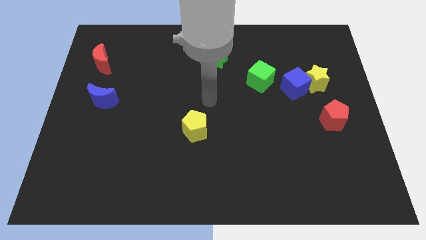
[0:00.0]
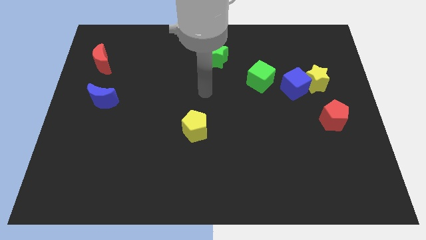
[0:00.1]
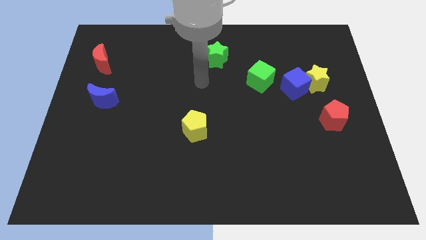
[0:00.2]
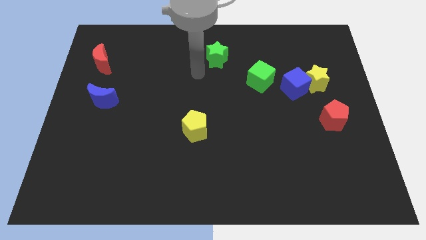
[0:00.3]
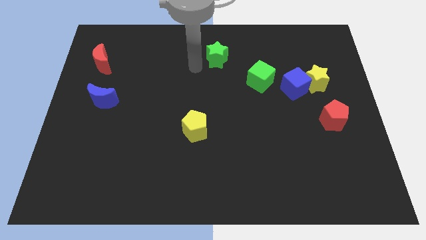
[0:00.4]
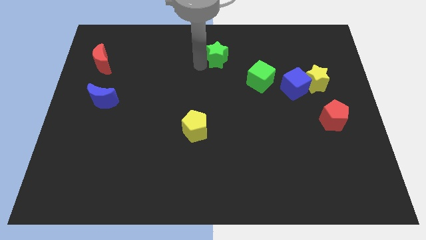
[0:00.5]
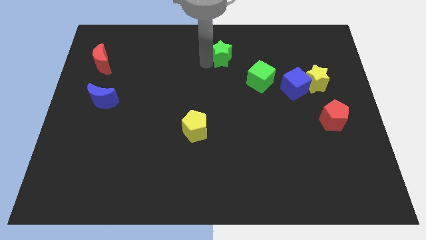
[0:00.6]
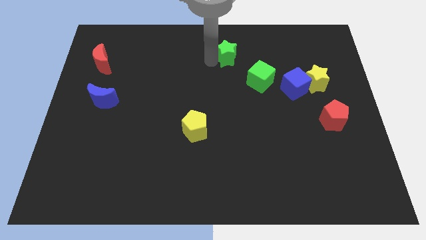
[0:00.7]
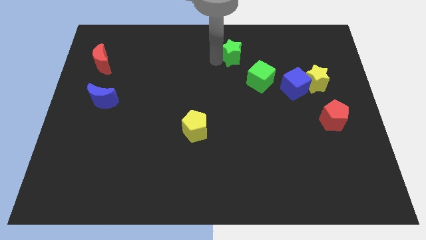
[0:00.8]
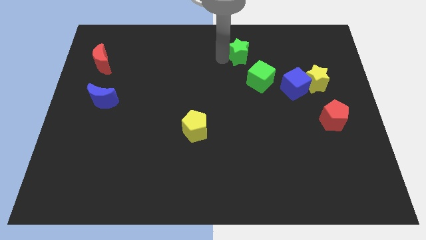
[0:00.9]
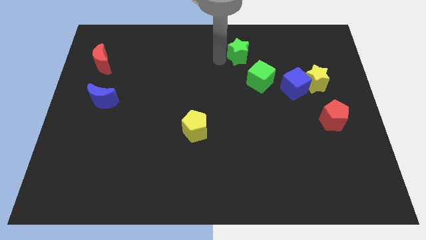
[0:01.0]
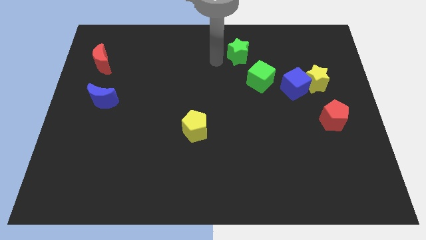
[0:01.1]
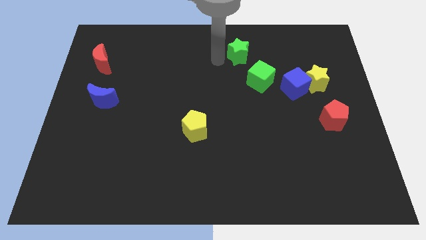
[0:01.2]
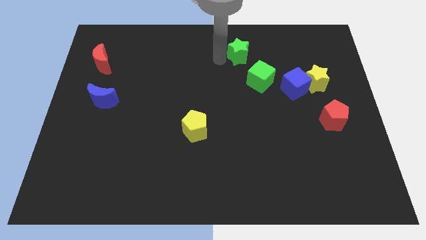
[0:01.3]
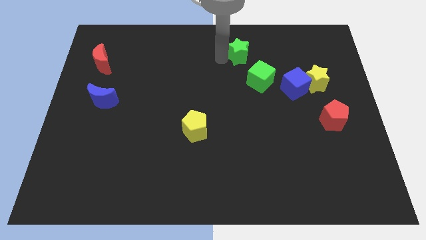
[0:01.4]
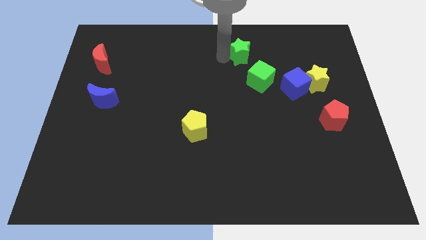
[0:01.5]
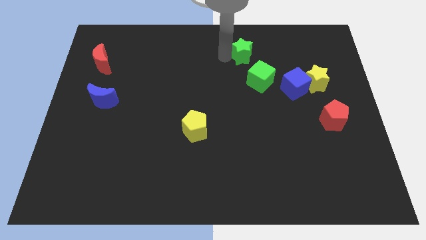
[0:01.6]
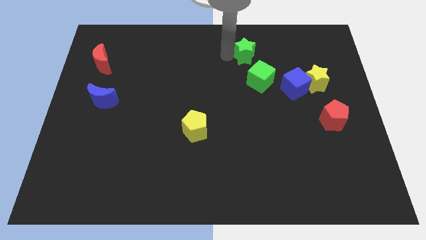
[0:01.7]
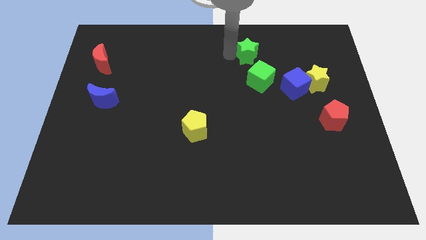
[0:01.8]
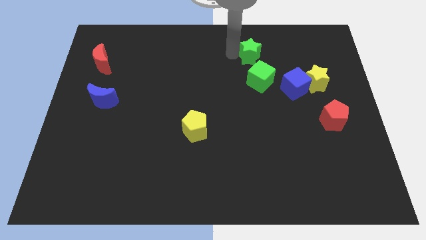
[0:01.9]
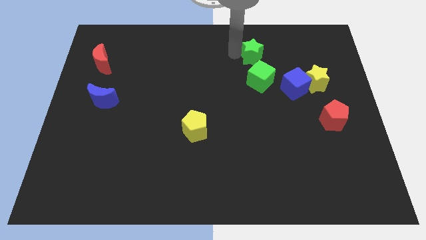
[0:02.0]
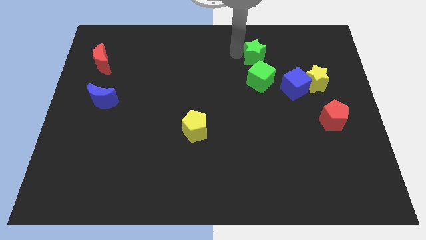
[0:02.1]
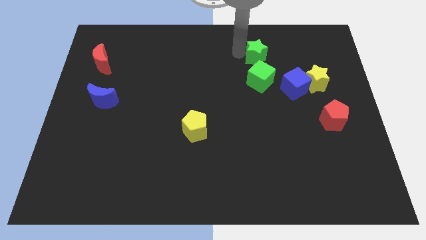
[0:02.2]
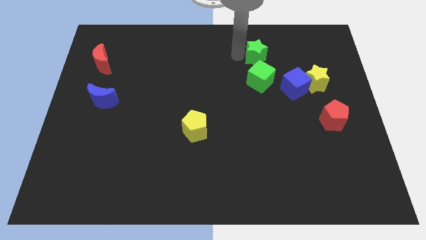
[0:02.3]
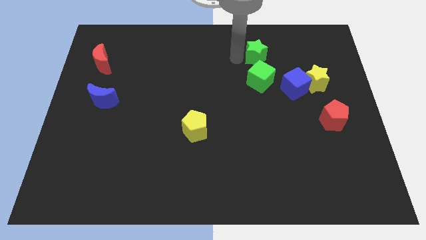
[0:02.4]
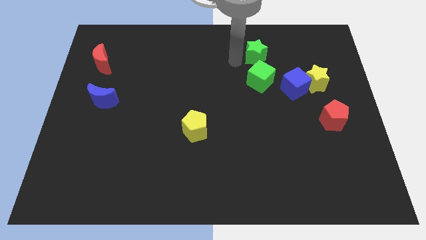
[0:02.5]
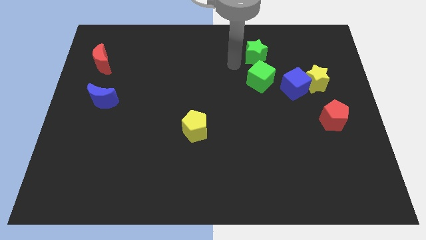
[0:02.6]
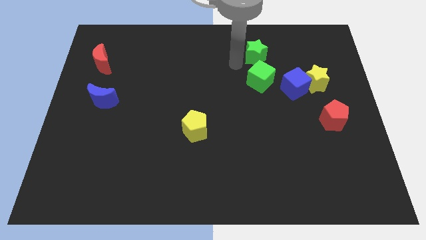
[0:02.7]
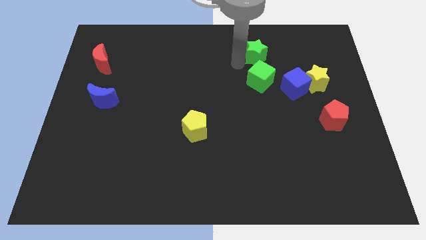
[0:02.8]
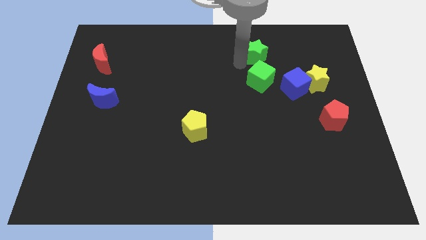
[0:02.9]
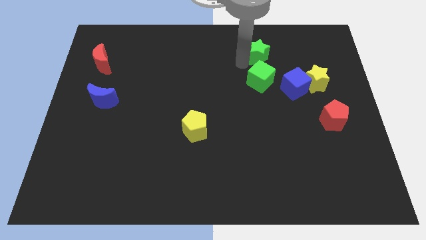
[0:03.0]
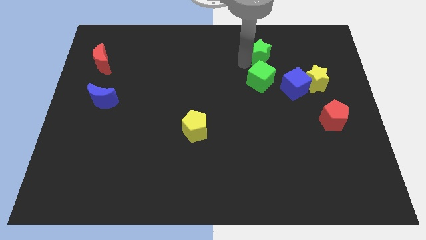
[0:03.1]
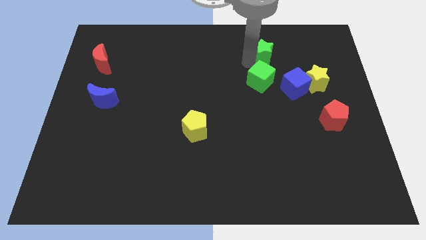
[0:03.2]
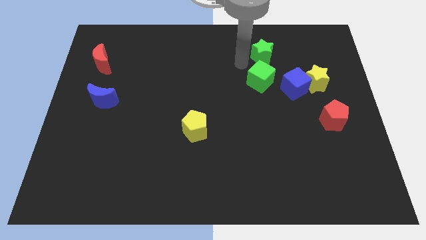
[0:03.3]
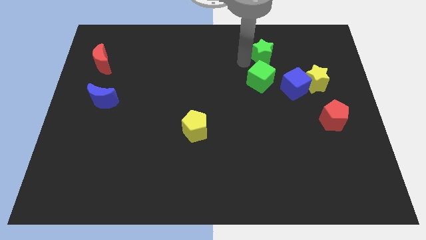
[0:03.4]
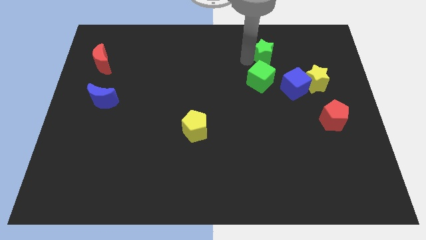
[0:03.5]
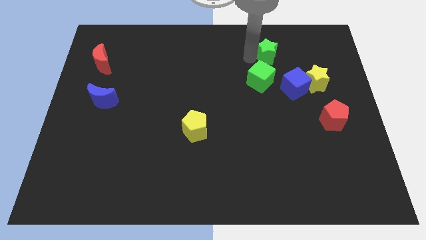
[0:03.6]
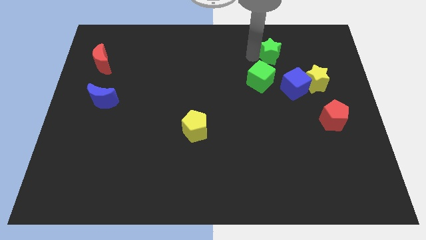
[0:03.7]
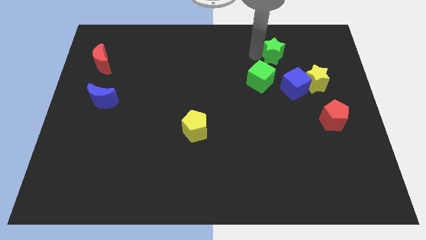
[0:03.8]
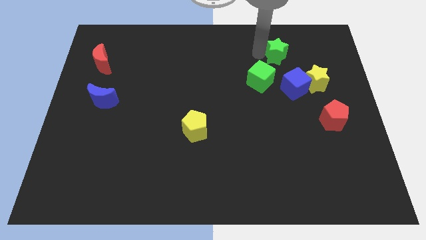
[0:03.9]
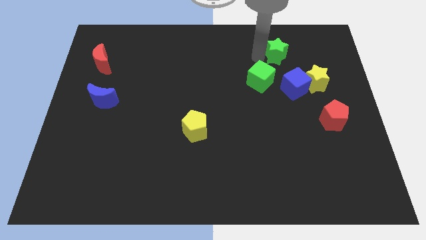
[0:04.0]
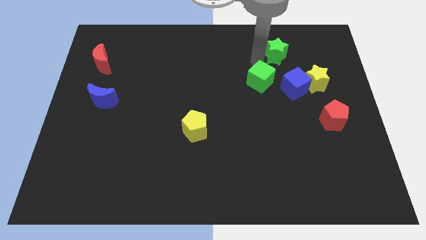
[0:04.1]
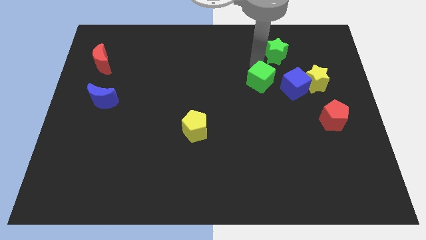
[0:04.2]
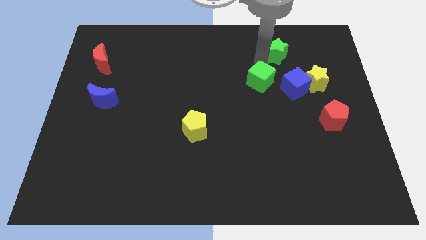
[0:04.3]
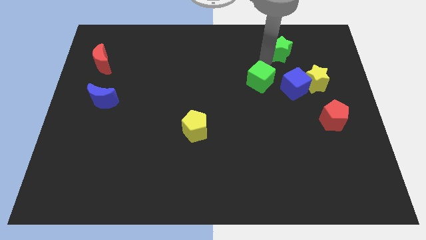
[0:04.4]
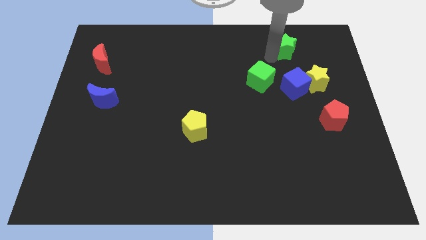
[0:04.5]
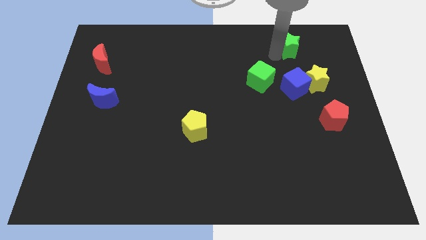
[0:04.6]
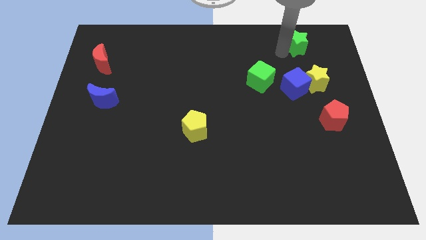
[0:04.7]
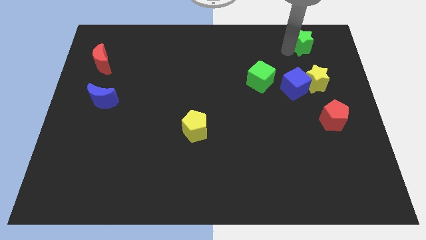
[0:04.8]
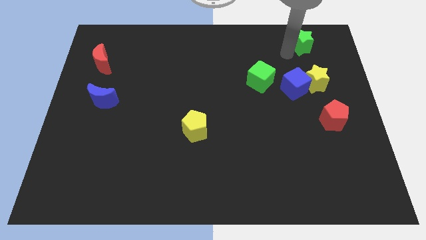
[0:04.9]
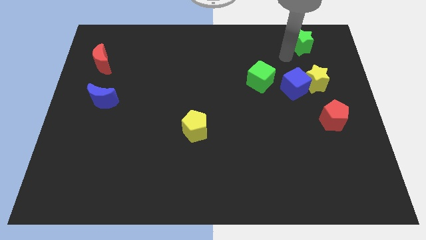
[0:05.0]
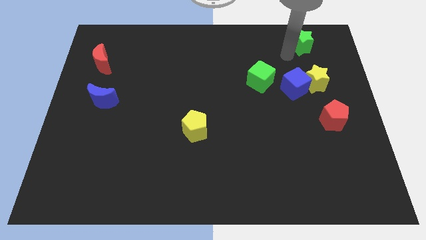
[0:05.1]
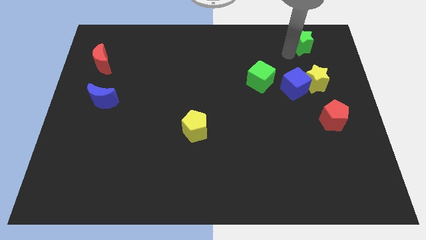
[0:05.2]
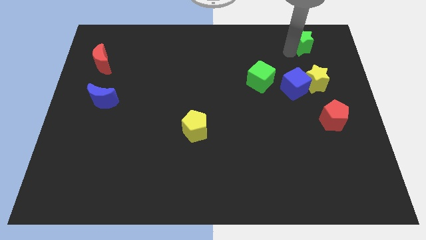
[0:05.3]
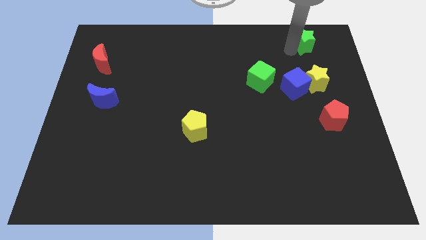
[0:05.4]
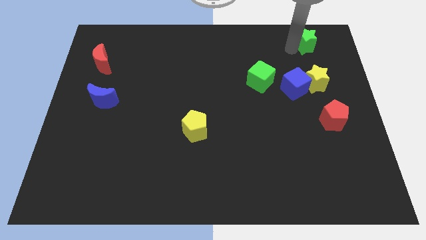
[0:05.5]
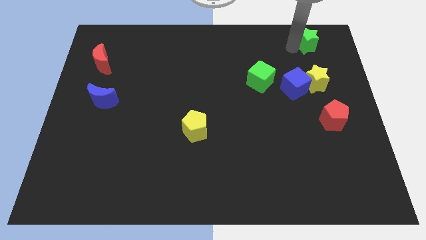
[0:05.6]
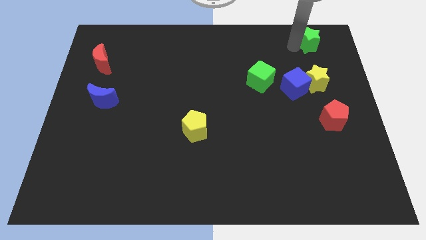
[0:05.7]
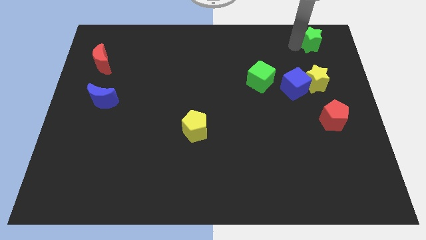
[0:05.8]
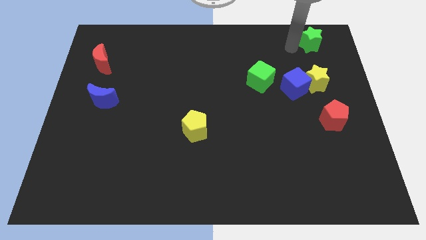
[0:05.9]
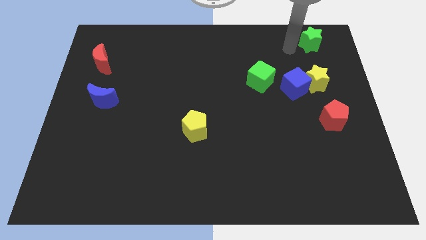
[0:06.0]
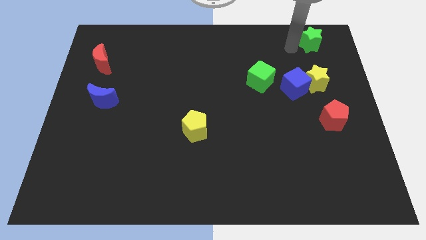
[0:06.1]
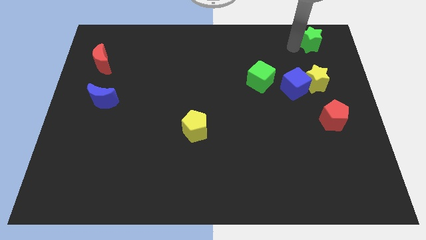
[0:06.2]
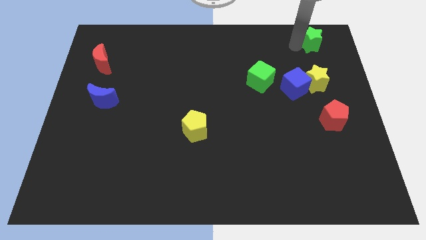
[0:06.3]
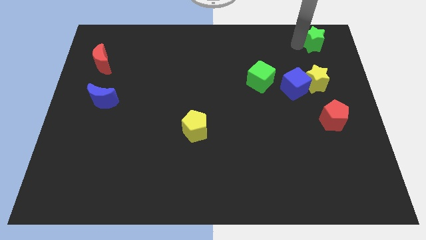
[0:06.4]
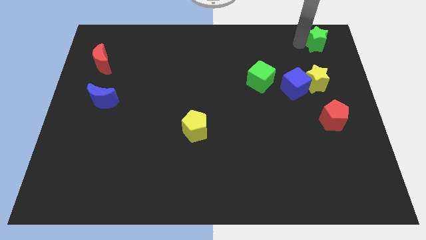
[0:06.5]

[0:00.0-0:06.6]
put the green star to the top right corner
